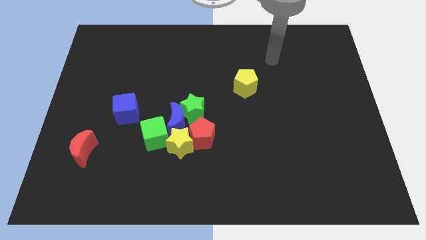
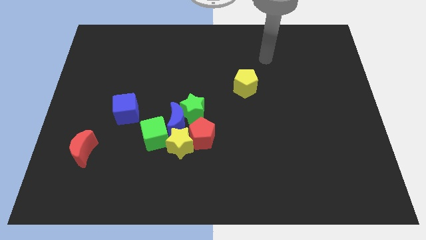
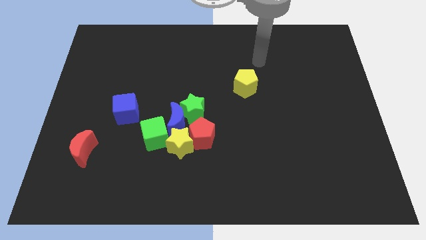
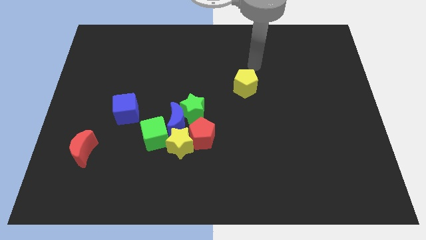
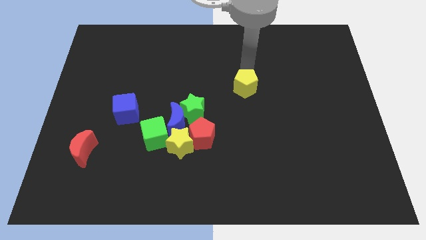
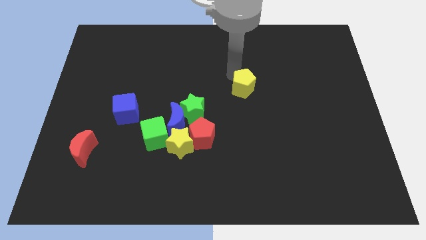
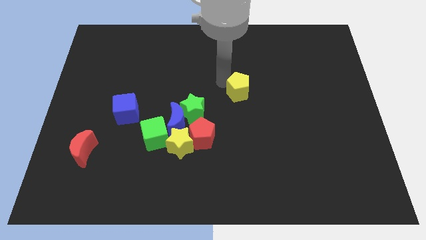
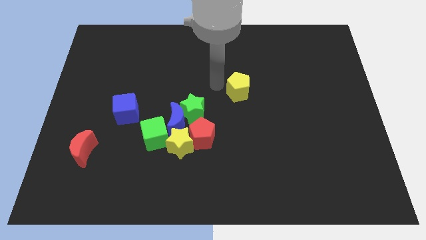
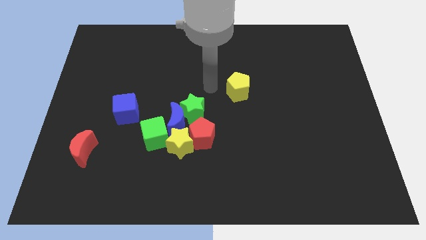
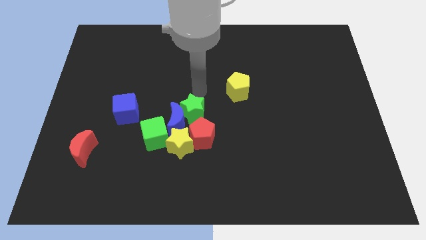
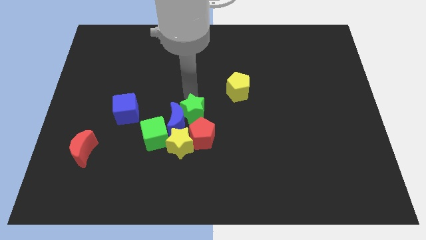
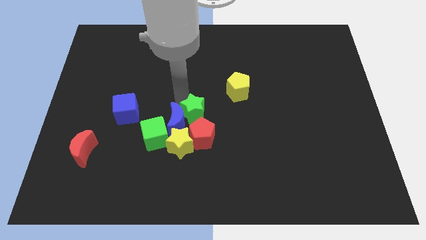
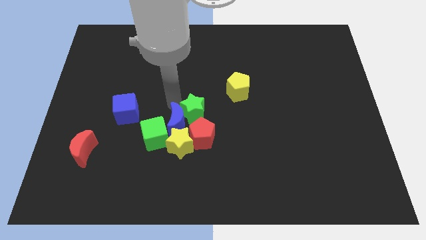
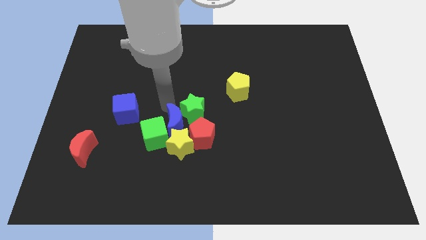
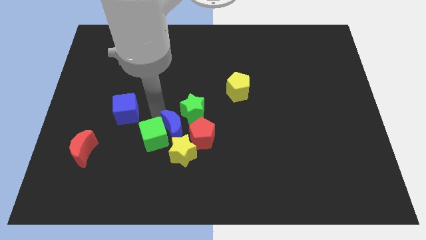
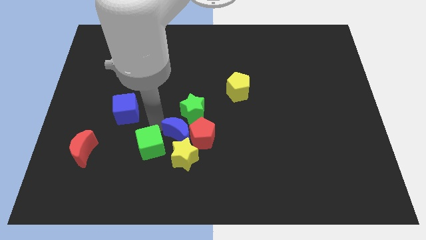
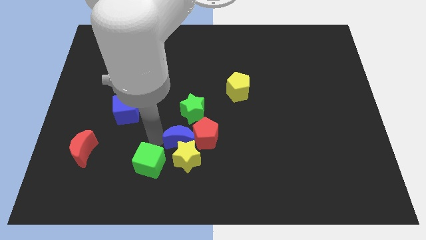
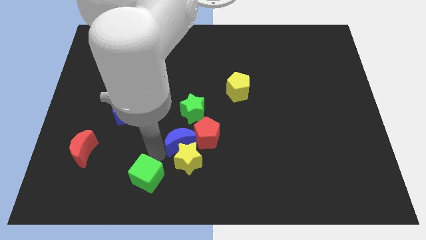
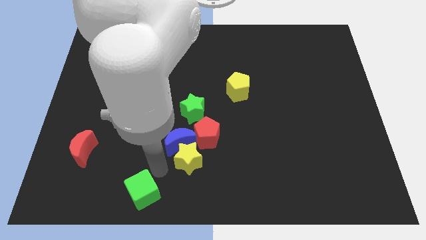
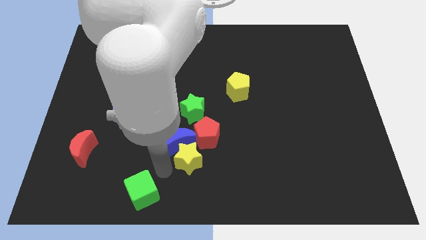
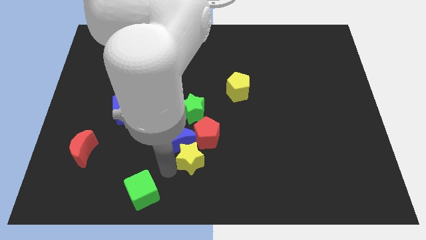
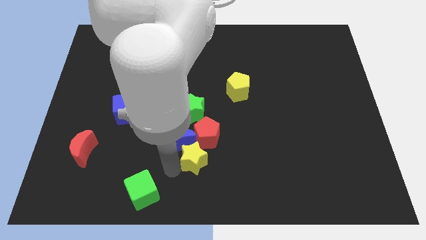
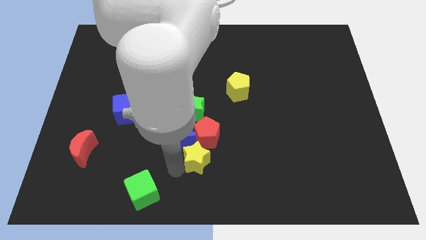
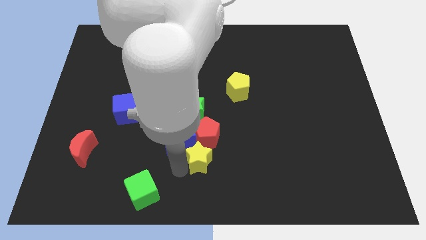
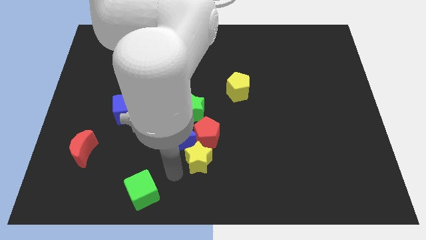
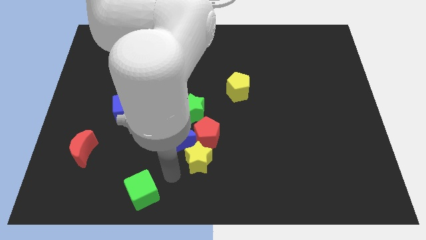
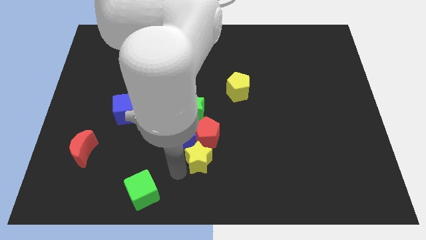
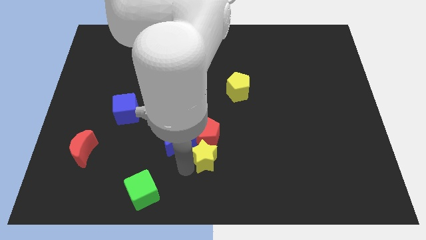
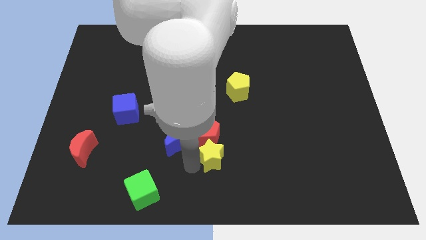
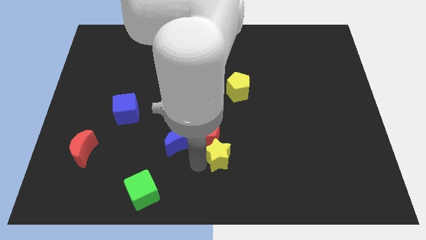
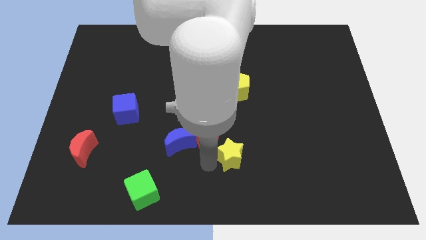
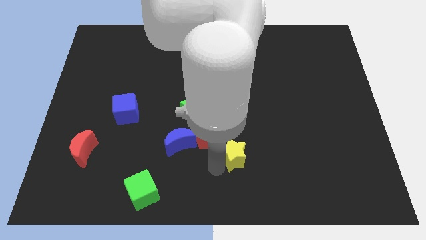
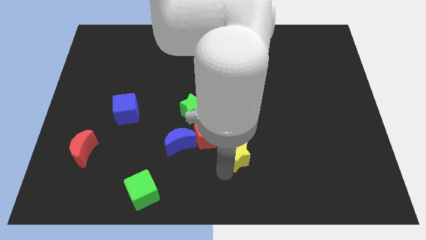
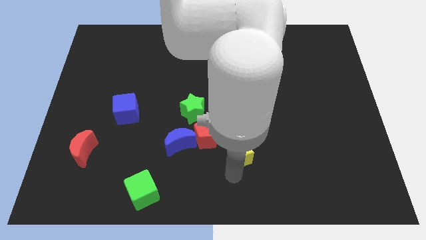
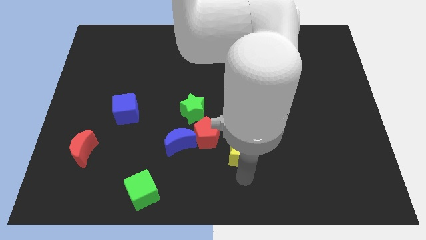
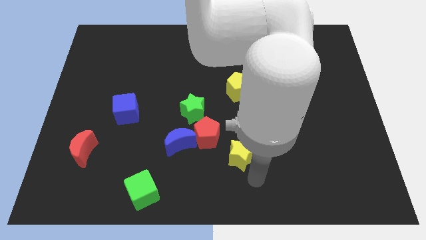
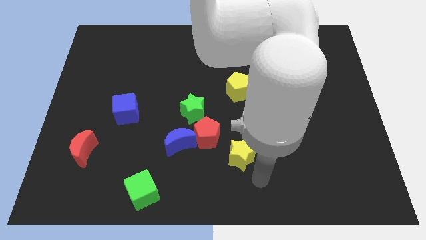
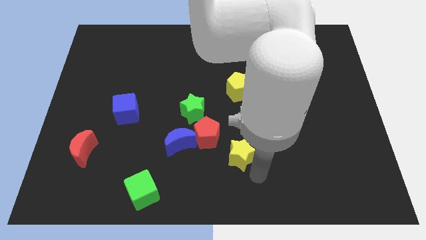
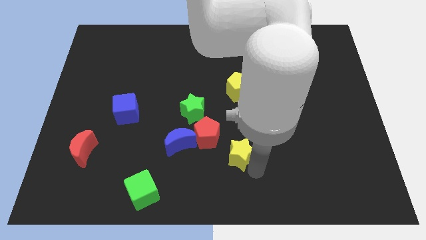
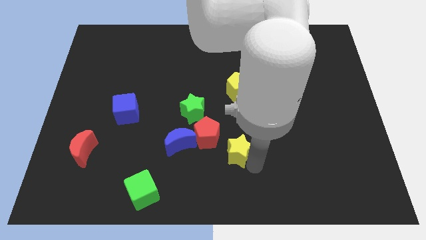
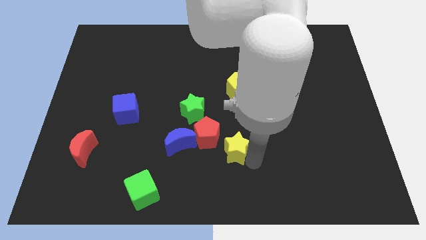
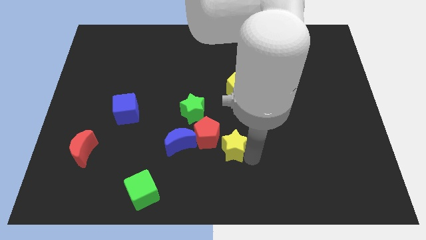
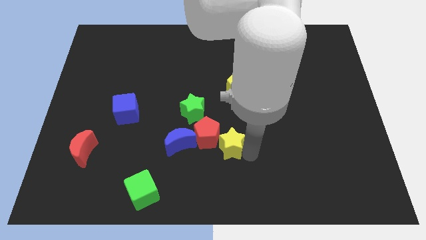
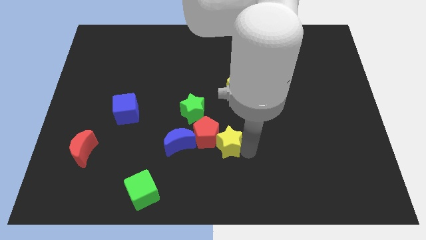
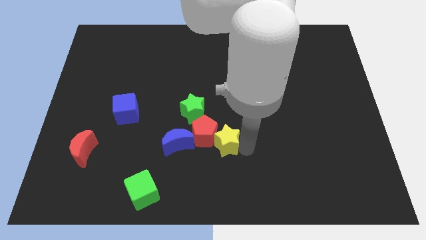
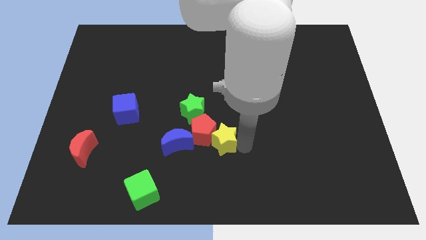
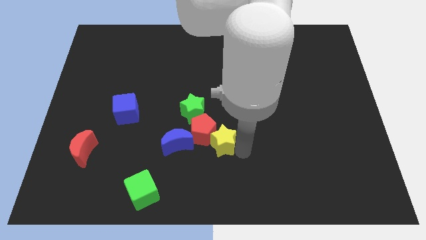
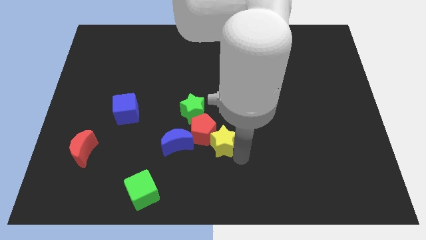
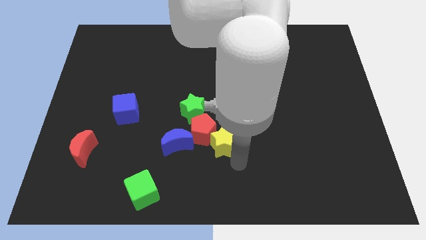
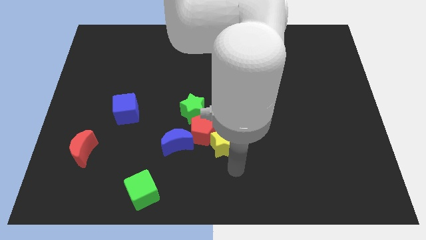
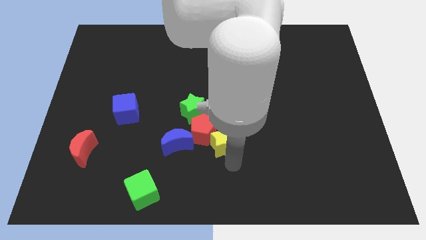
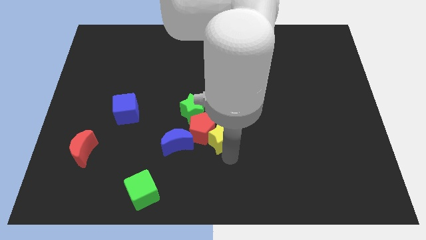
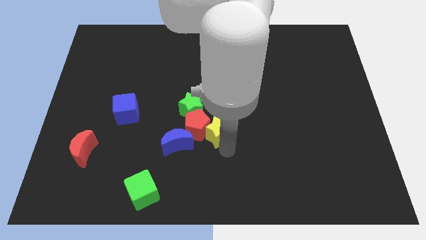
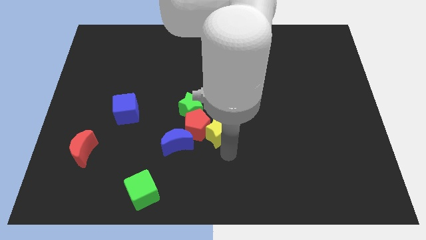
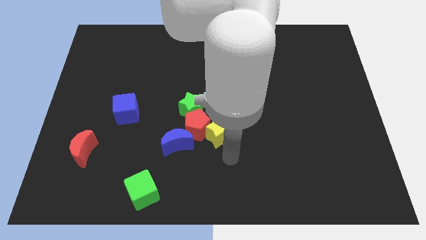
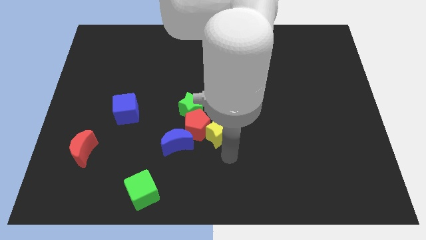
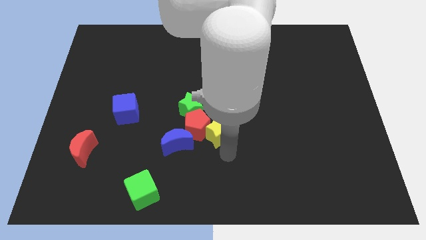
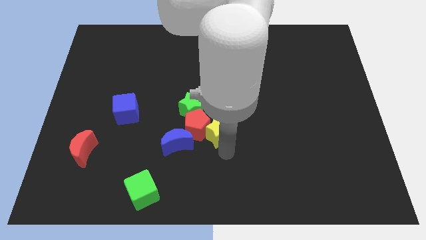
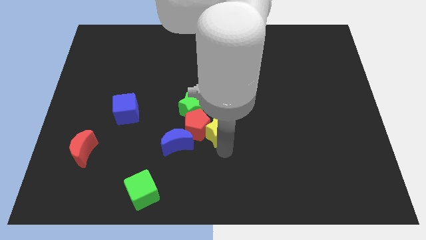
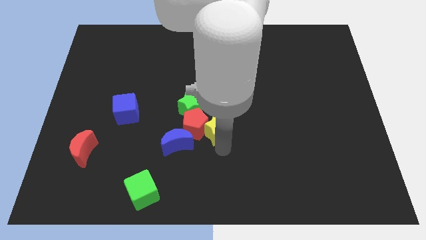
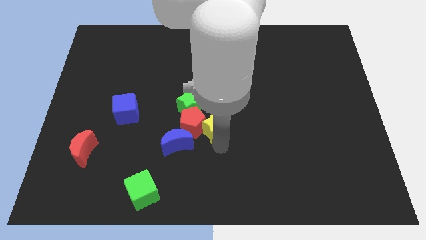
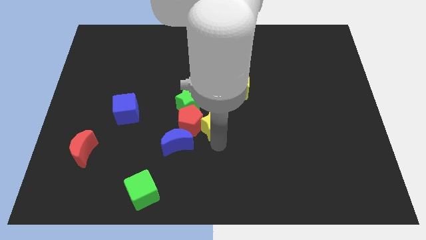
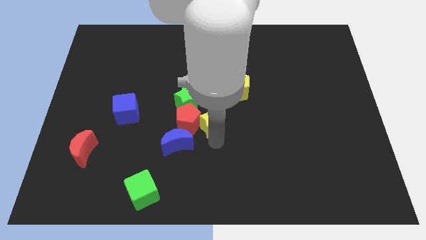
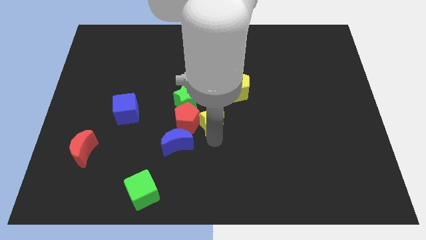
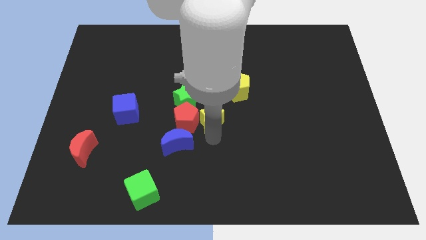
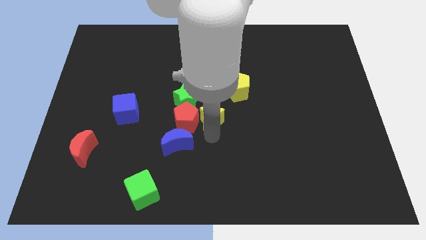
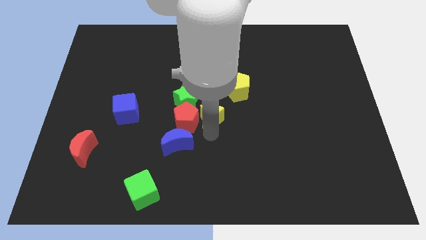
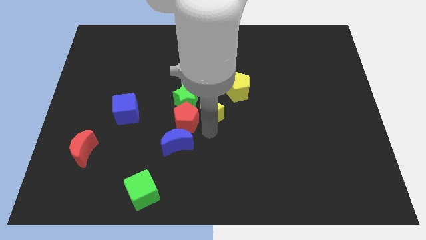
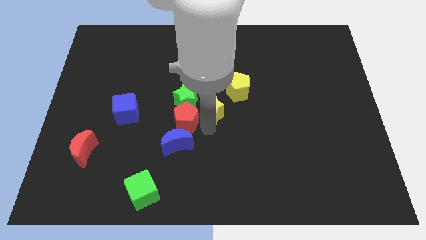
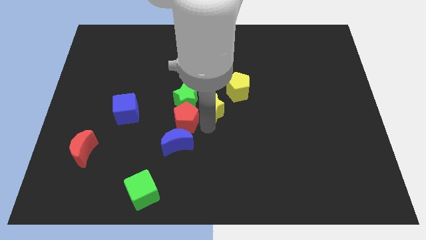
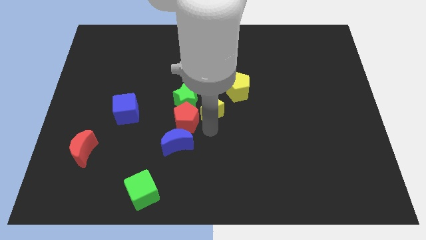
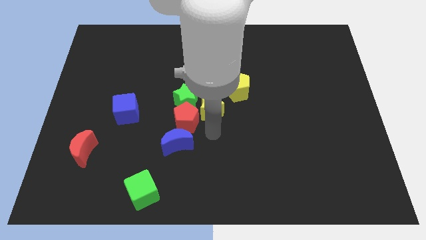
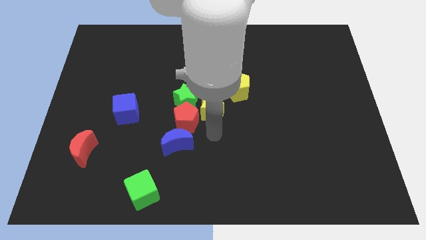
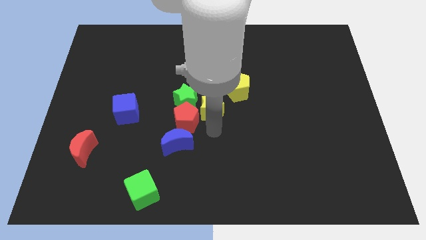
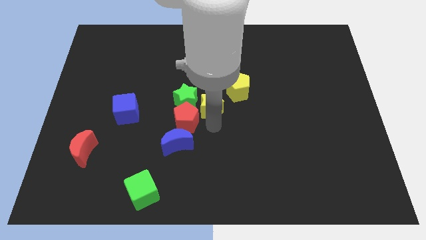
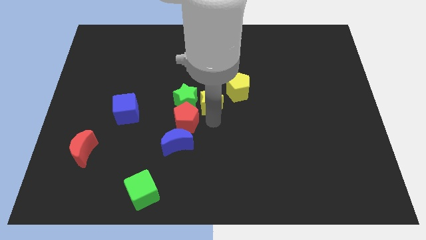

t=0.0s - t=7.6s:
move the yellow star to the left of the yellow pentagon
